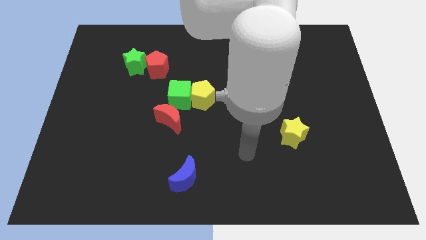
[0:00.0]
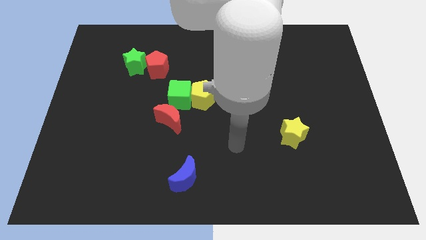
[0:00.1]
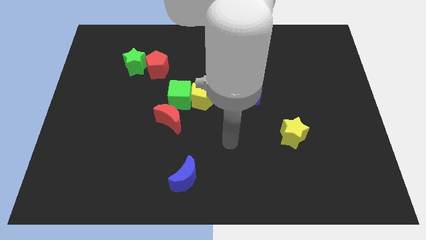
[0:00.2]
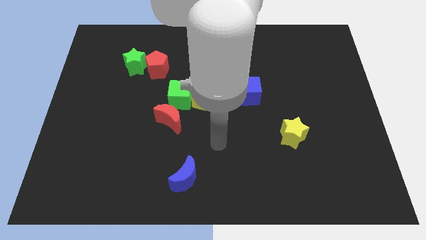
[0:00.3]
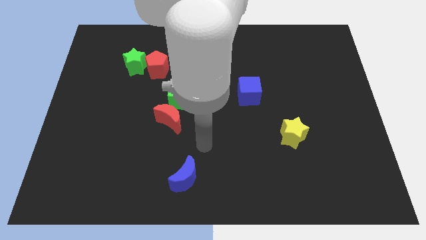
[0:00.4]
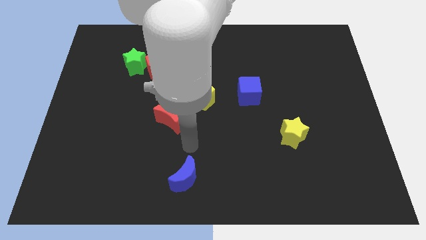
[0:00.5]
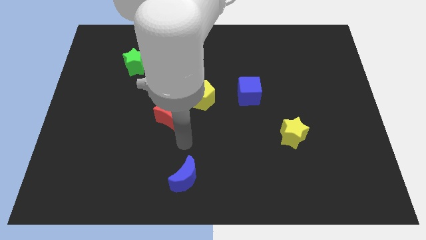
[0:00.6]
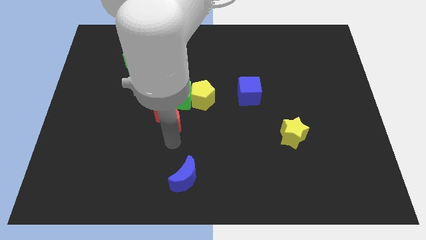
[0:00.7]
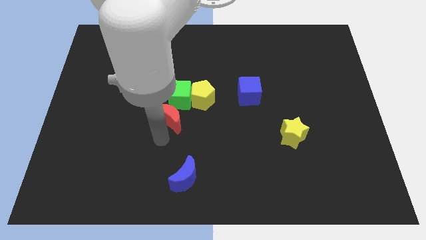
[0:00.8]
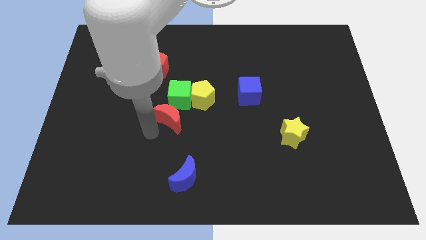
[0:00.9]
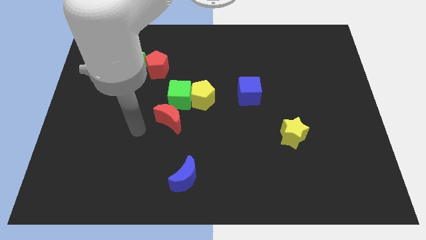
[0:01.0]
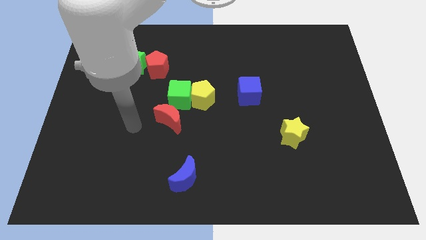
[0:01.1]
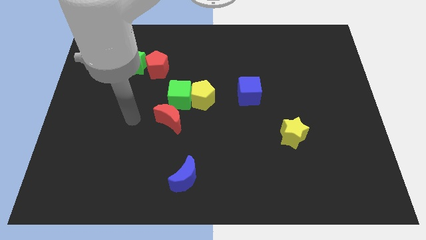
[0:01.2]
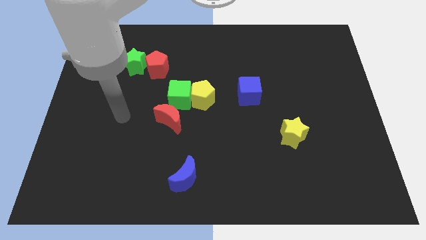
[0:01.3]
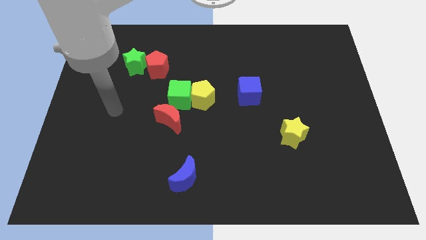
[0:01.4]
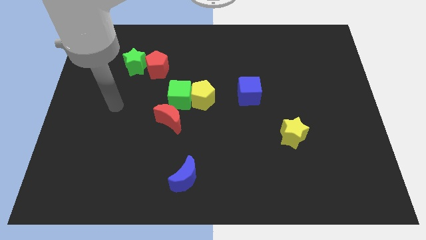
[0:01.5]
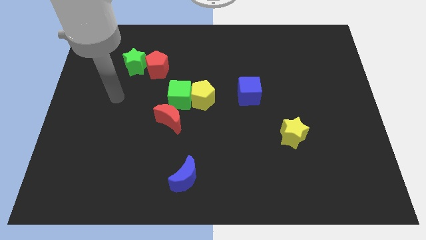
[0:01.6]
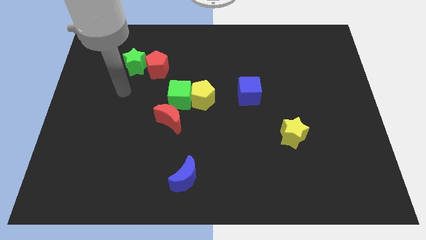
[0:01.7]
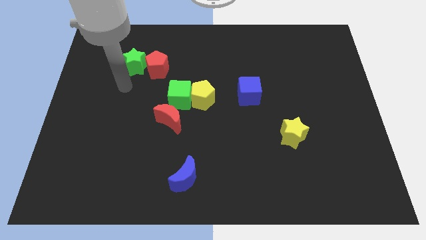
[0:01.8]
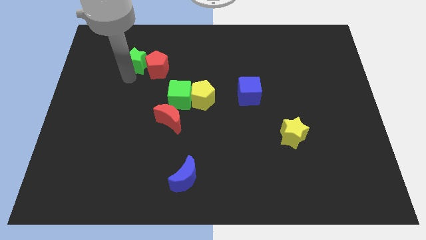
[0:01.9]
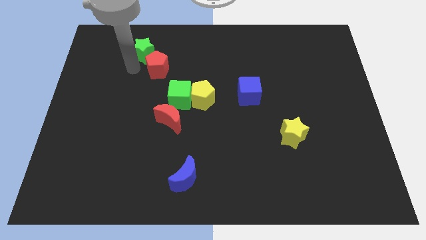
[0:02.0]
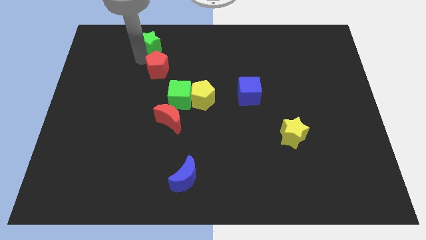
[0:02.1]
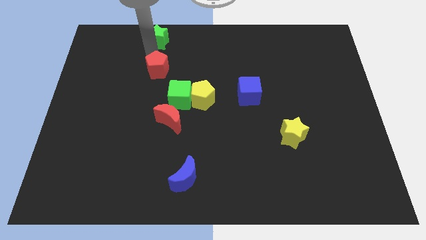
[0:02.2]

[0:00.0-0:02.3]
pull the red pentagon apart from the green star

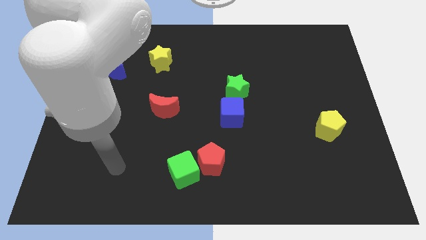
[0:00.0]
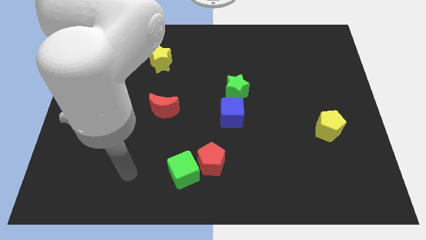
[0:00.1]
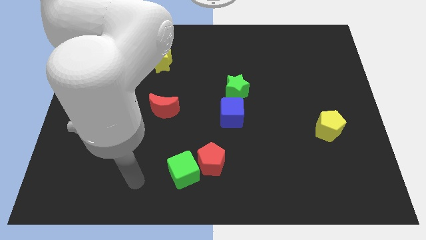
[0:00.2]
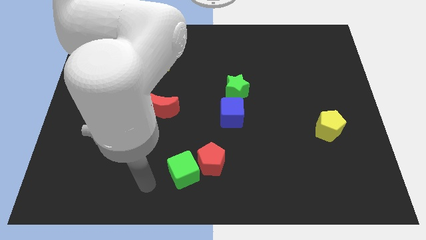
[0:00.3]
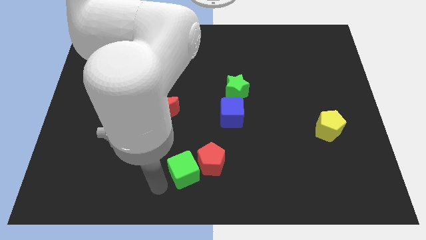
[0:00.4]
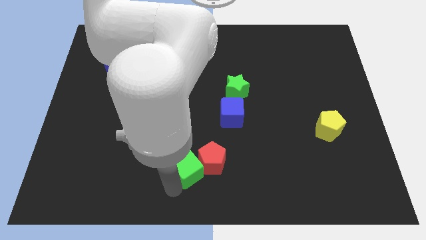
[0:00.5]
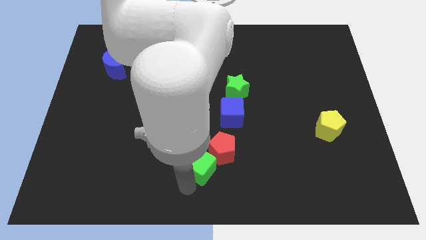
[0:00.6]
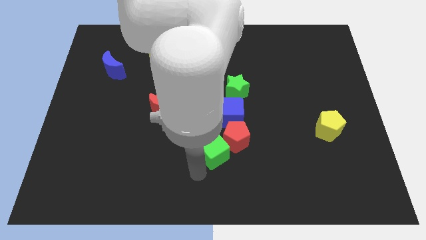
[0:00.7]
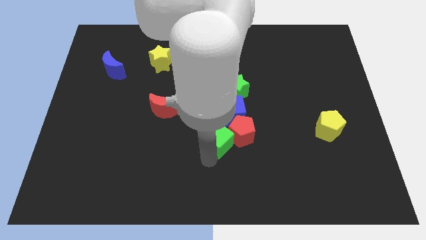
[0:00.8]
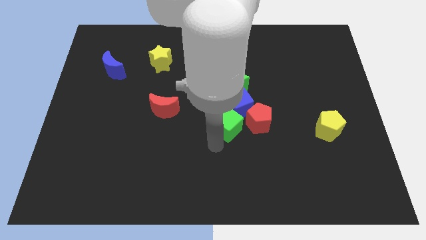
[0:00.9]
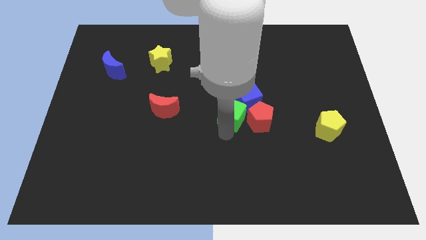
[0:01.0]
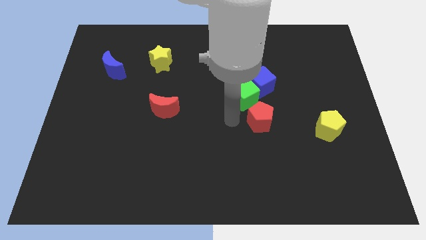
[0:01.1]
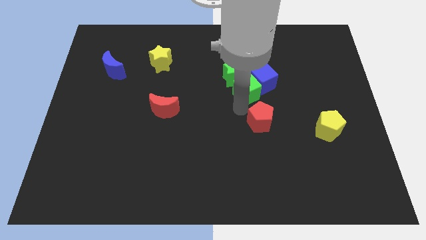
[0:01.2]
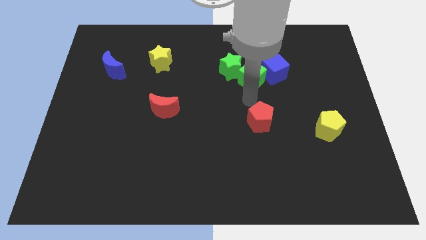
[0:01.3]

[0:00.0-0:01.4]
move the red pentagon away from the green cube

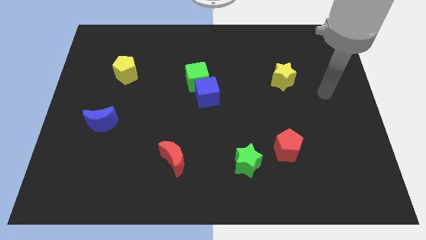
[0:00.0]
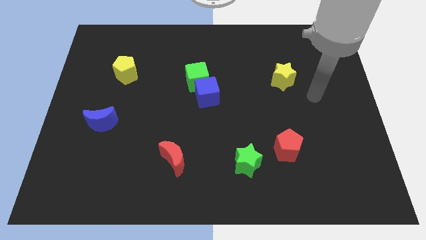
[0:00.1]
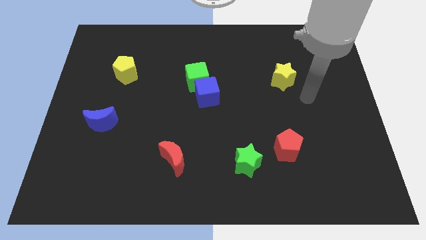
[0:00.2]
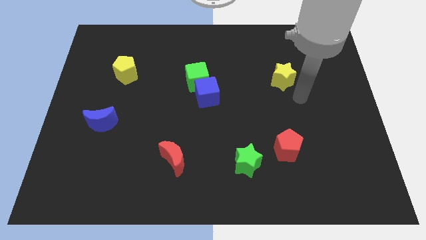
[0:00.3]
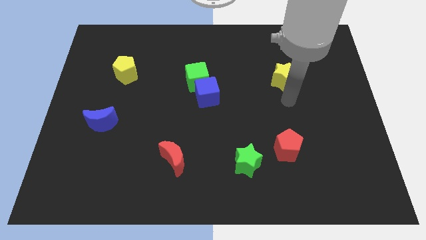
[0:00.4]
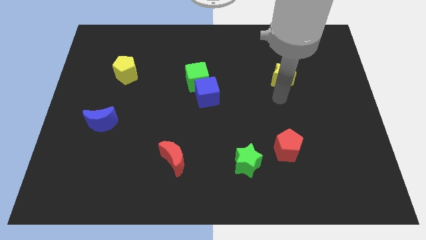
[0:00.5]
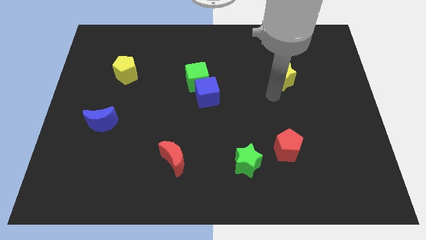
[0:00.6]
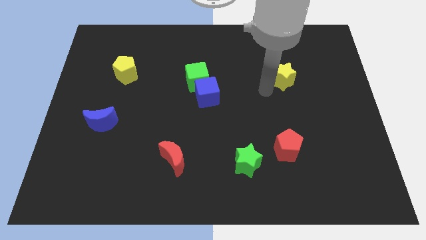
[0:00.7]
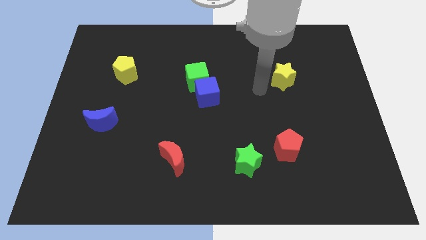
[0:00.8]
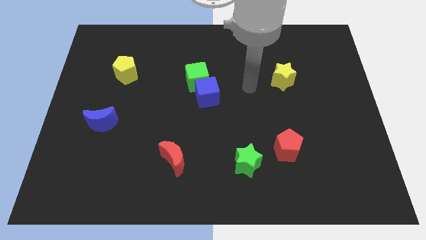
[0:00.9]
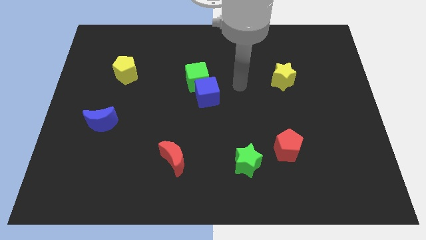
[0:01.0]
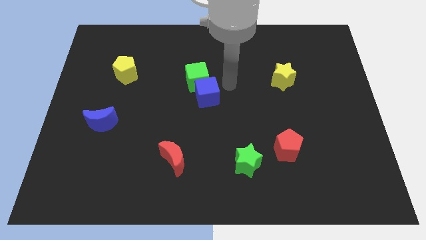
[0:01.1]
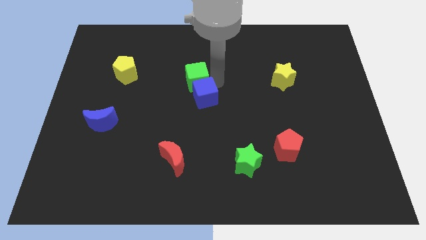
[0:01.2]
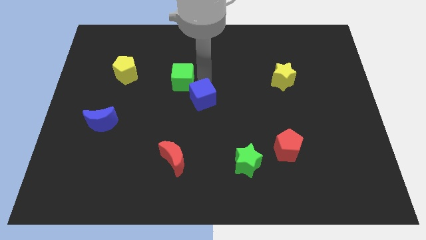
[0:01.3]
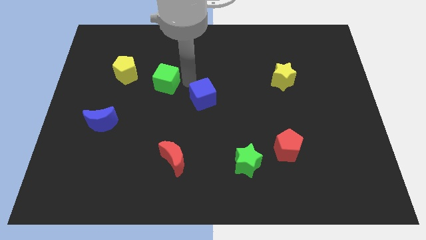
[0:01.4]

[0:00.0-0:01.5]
separate the blue cube from the green cube

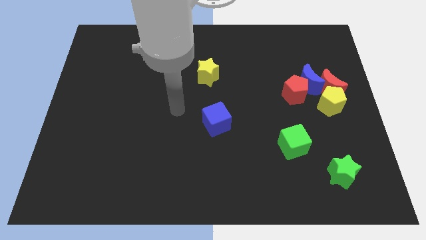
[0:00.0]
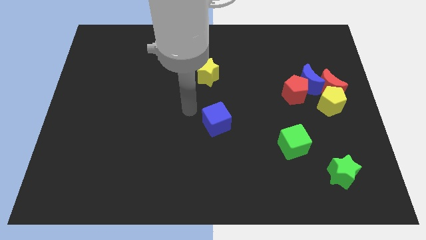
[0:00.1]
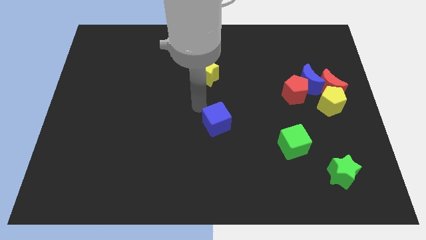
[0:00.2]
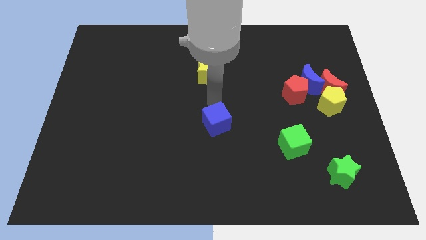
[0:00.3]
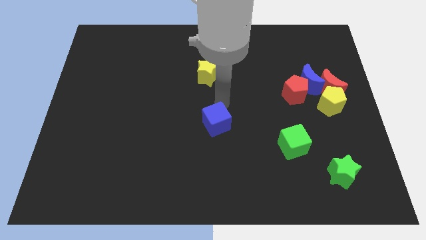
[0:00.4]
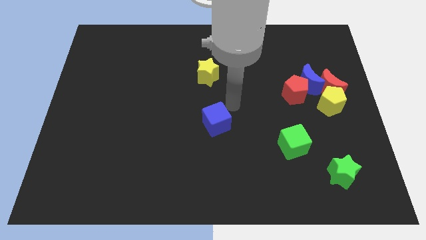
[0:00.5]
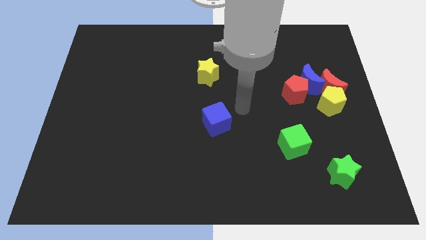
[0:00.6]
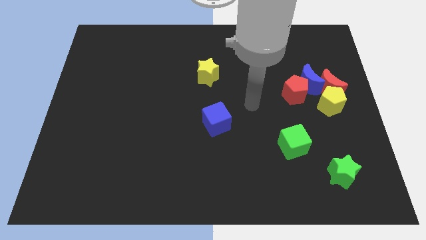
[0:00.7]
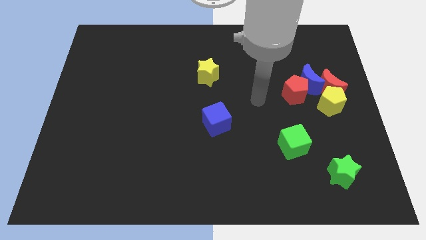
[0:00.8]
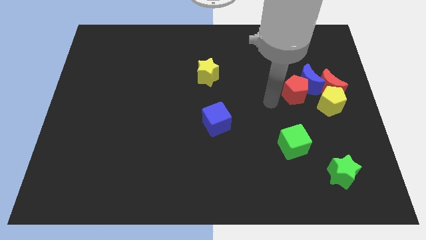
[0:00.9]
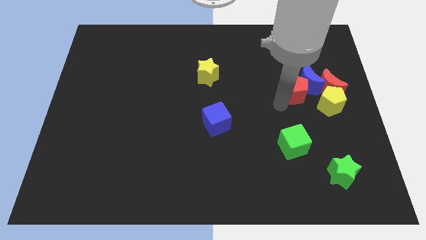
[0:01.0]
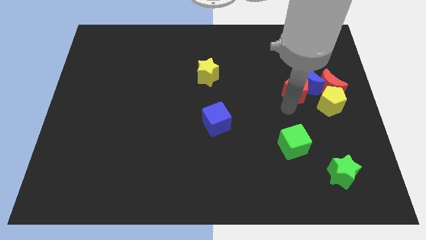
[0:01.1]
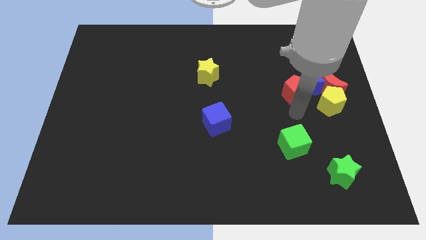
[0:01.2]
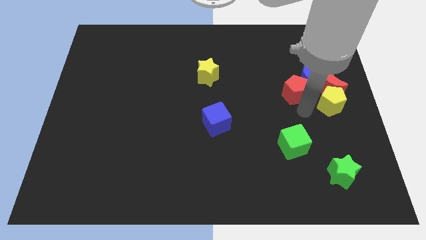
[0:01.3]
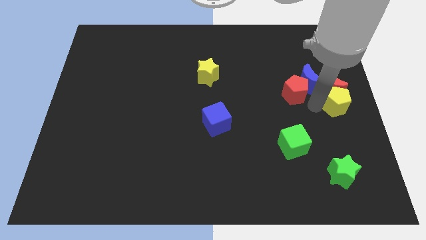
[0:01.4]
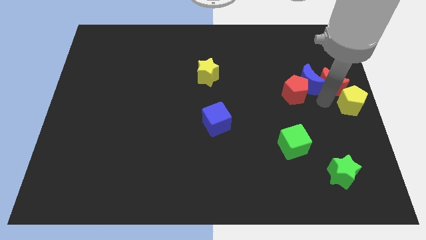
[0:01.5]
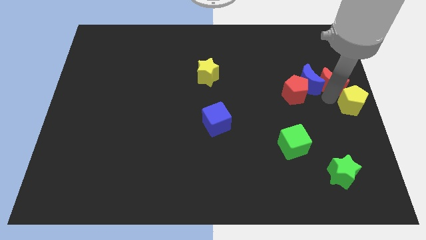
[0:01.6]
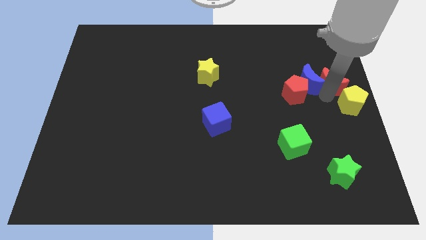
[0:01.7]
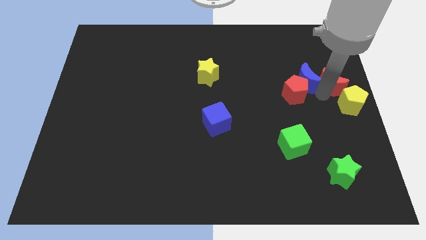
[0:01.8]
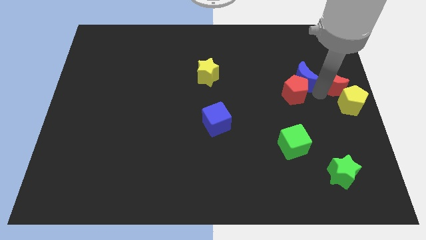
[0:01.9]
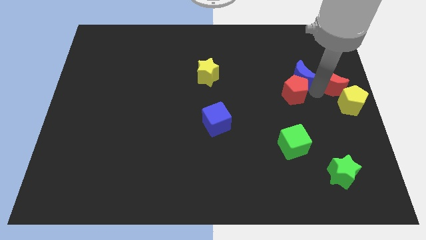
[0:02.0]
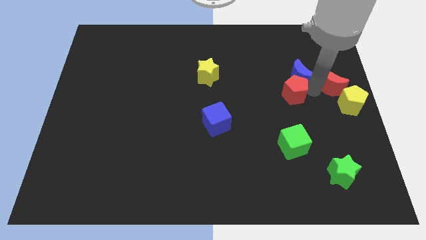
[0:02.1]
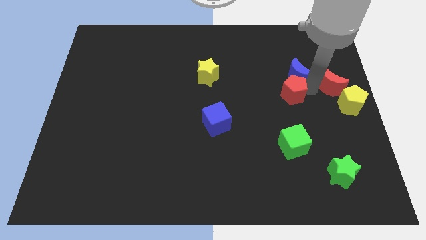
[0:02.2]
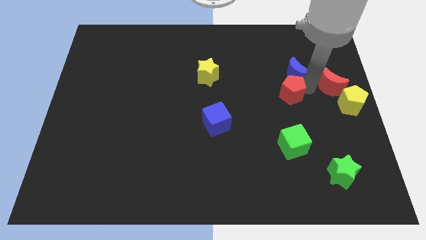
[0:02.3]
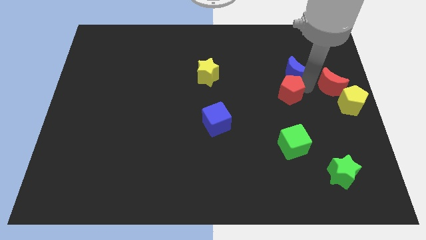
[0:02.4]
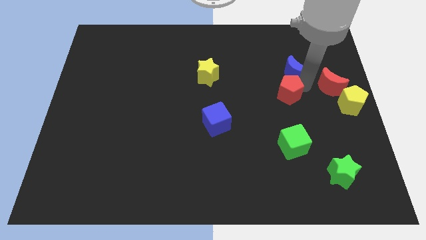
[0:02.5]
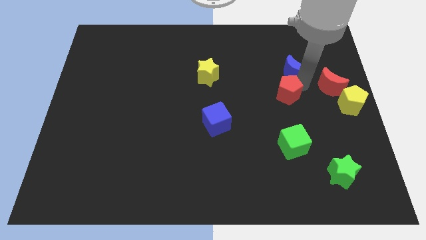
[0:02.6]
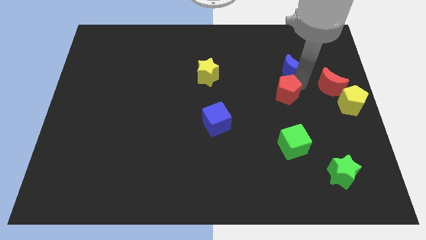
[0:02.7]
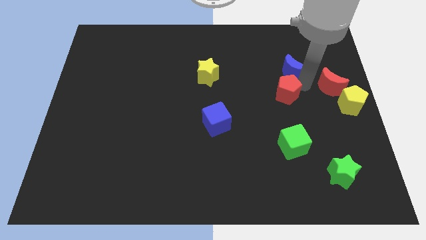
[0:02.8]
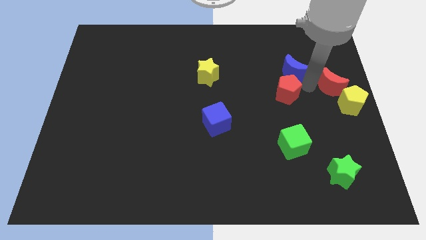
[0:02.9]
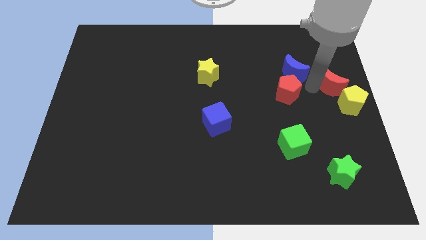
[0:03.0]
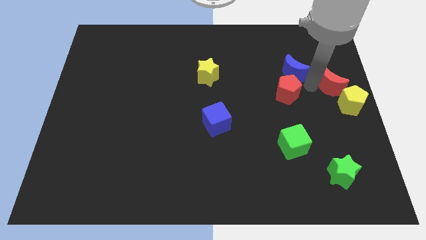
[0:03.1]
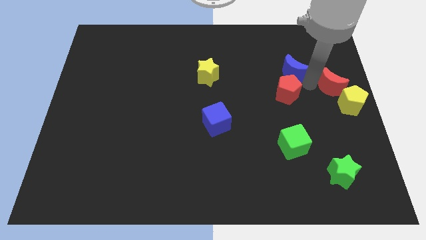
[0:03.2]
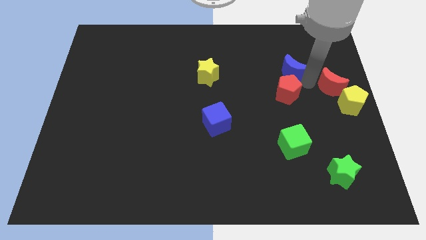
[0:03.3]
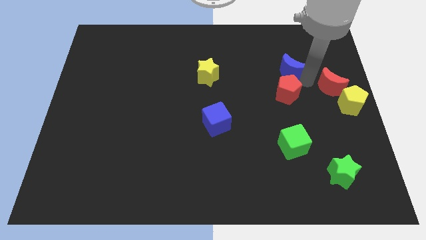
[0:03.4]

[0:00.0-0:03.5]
pull the blue moon apart from the red pentagon, red moon, and yellow pentagon

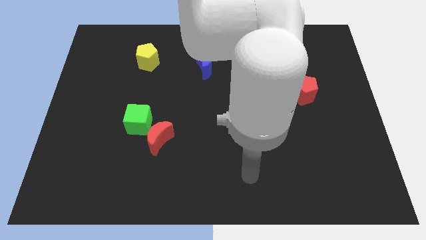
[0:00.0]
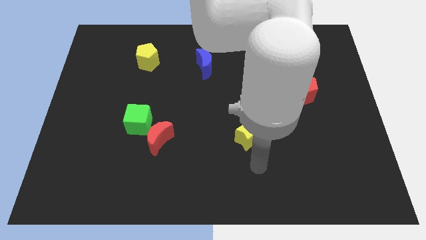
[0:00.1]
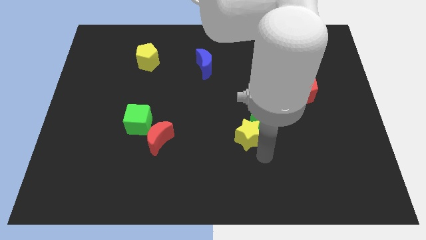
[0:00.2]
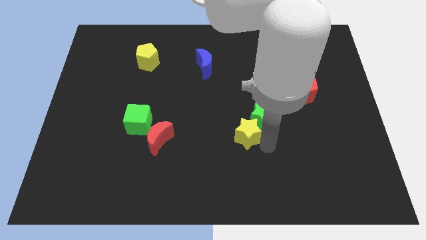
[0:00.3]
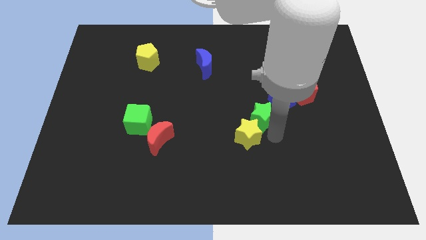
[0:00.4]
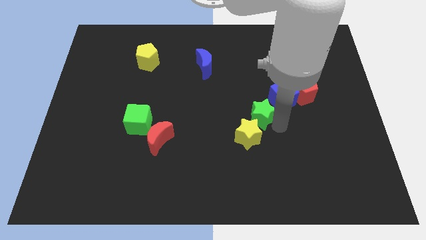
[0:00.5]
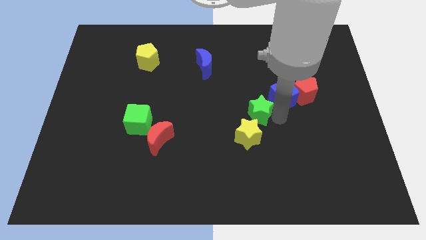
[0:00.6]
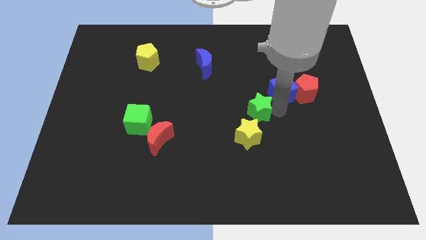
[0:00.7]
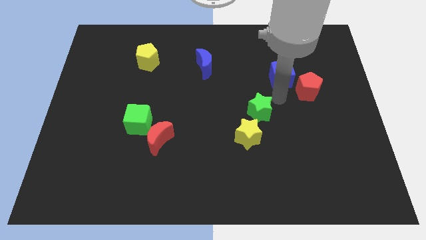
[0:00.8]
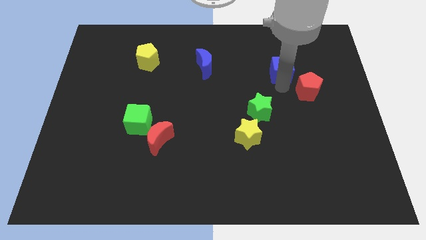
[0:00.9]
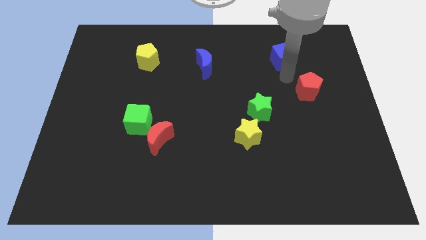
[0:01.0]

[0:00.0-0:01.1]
pull the red pentagon apart from the blue cube
